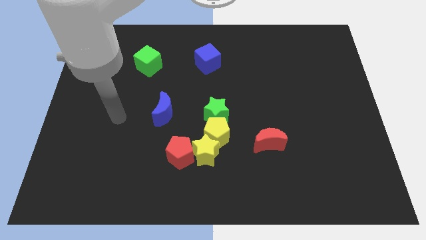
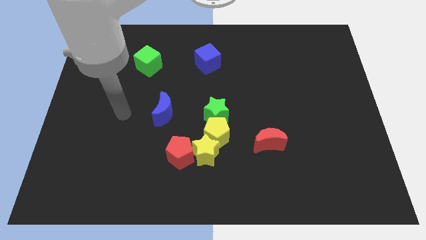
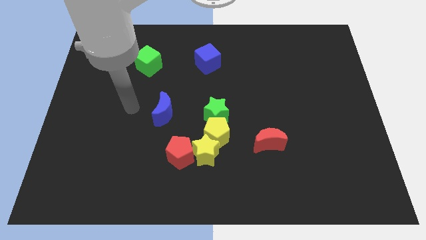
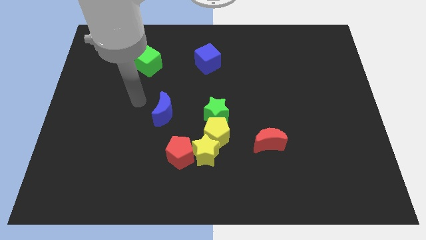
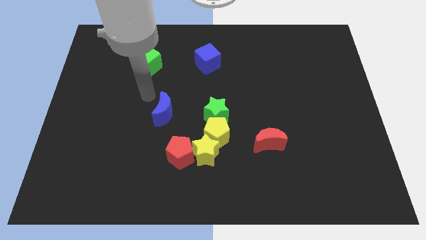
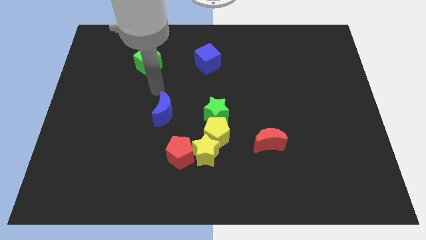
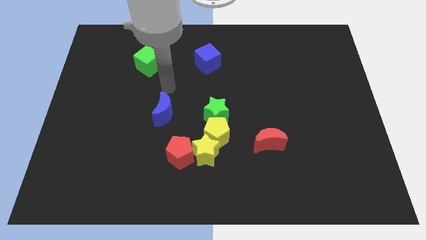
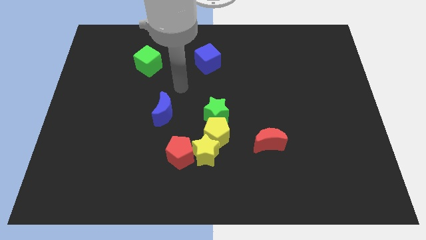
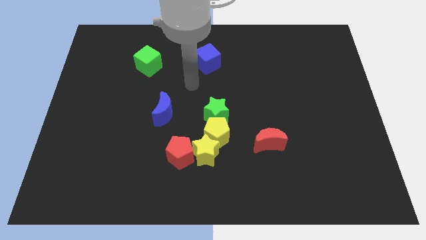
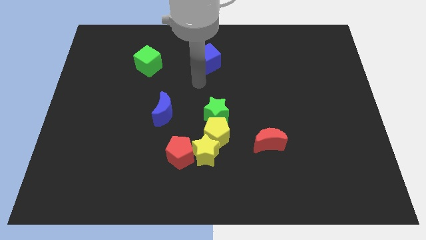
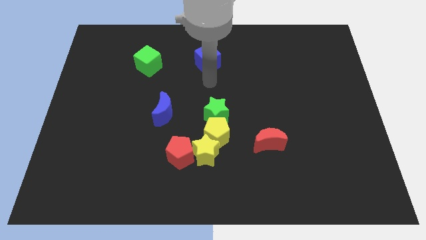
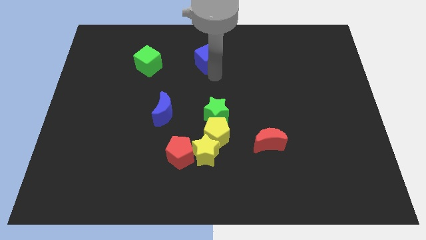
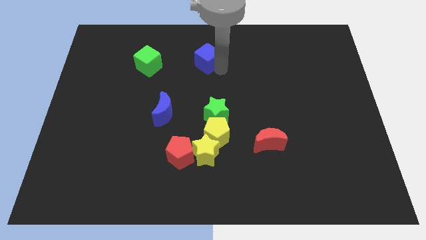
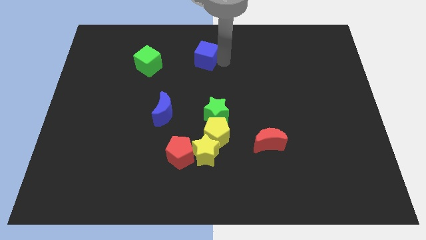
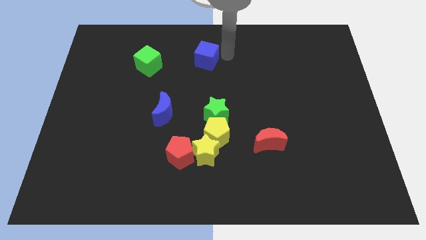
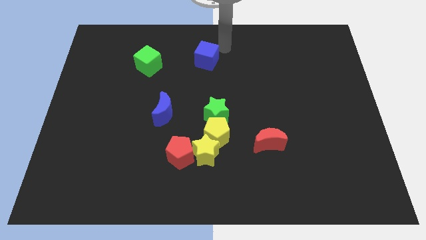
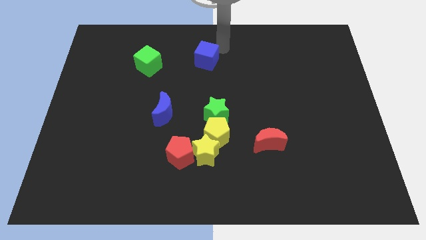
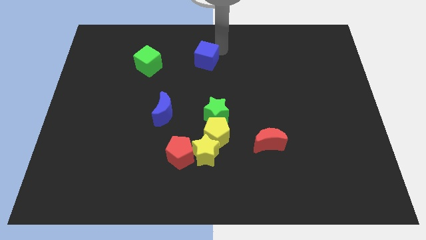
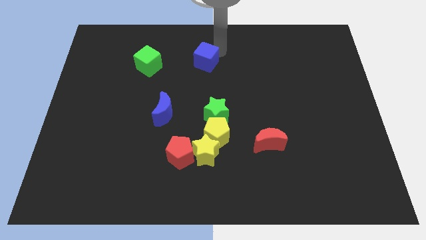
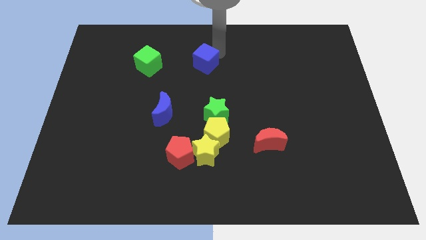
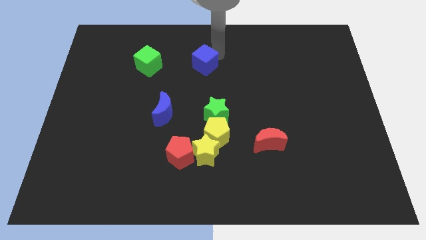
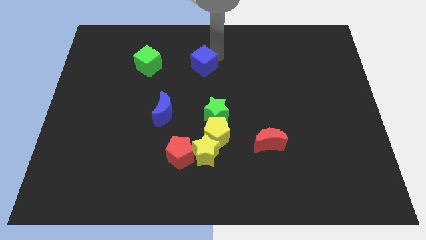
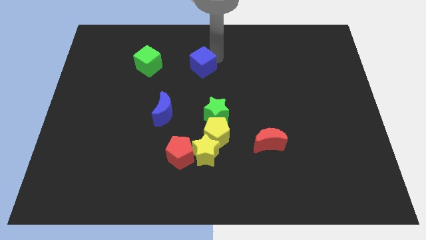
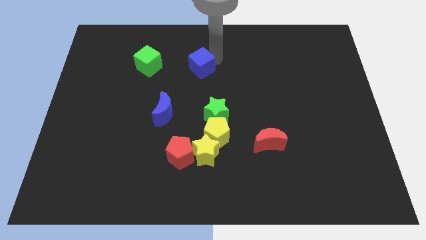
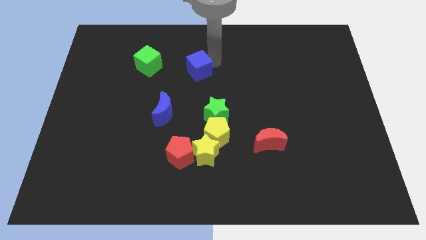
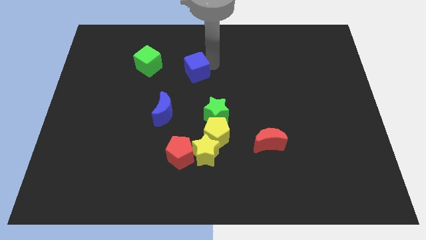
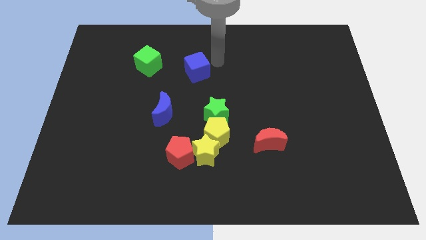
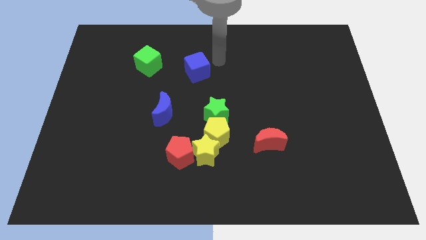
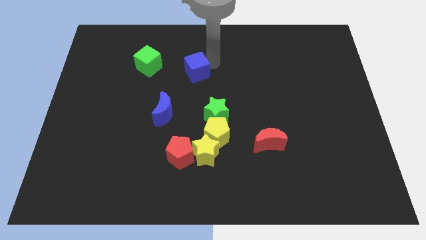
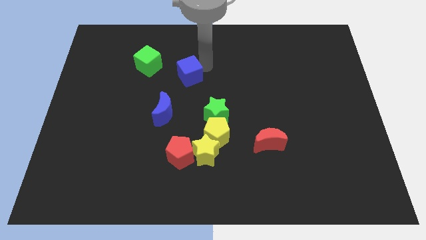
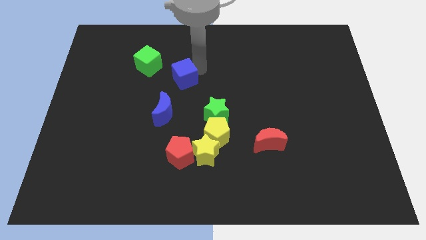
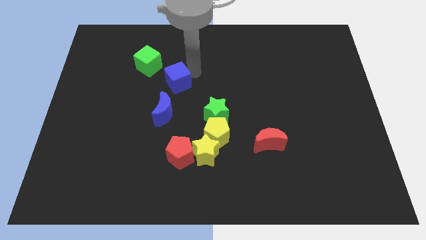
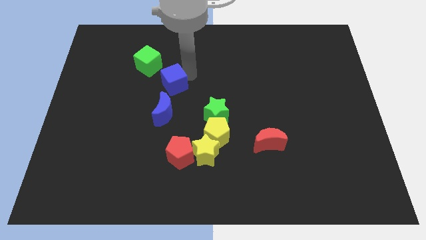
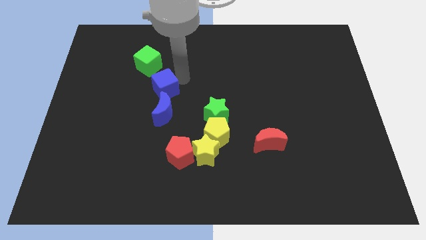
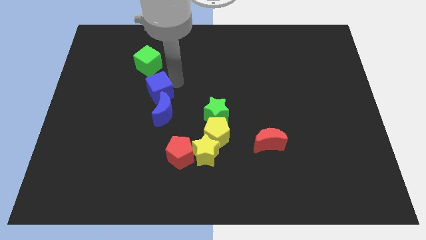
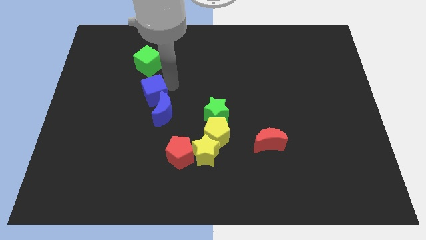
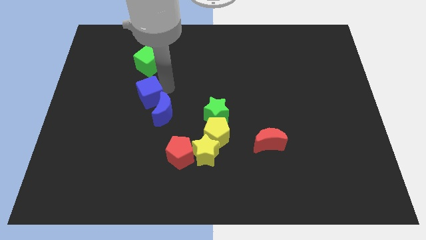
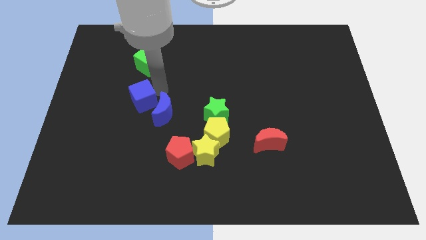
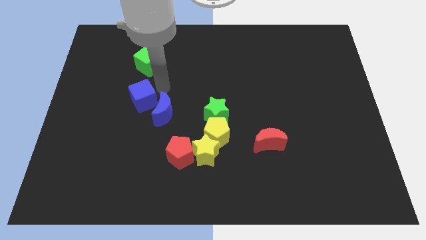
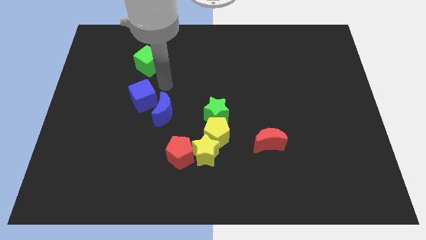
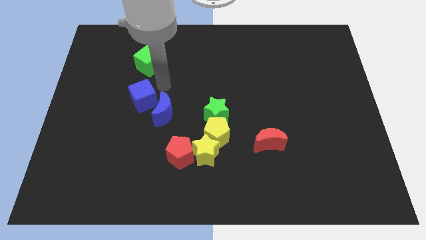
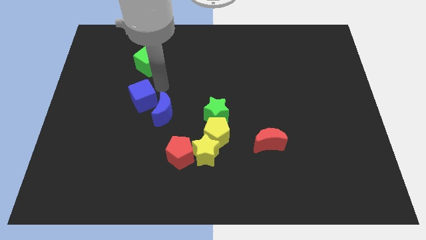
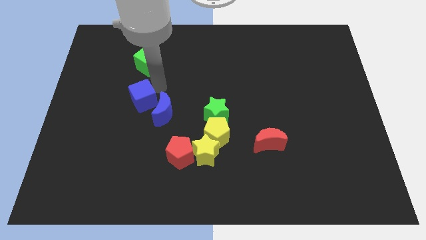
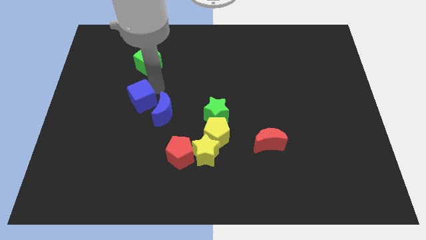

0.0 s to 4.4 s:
slide the blue cube down and to the left

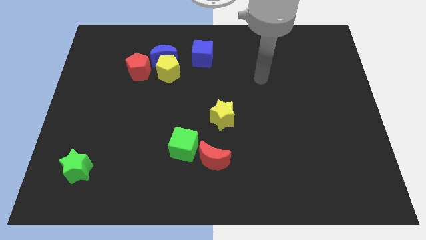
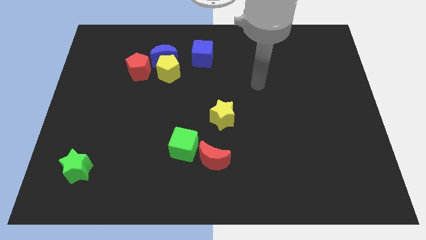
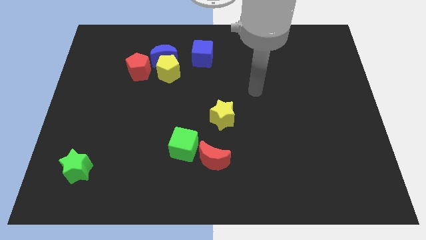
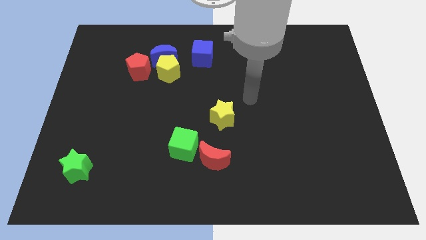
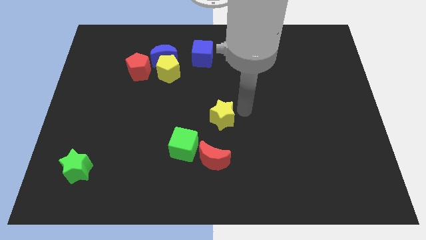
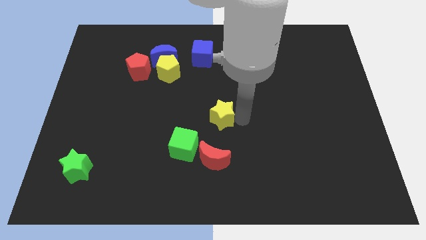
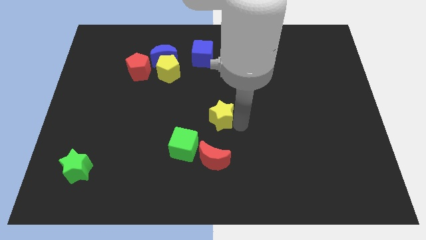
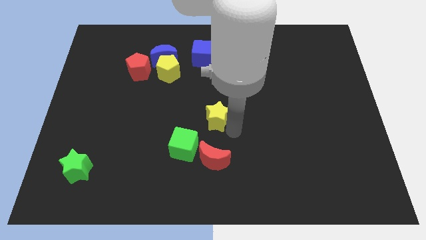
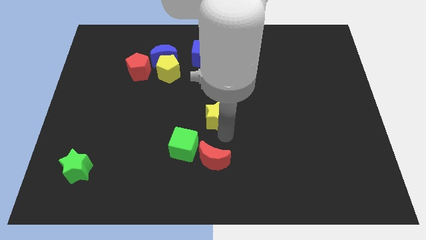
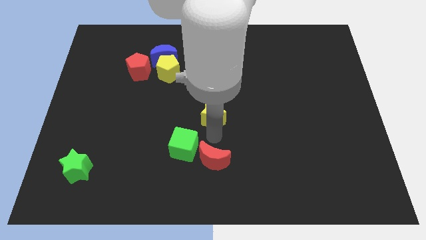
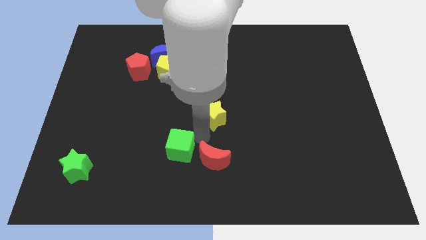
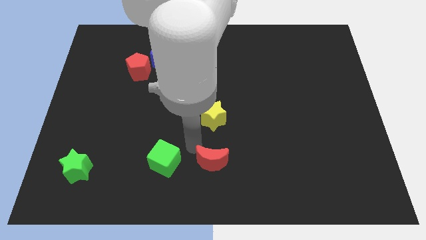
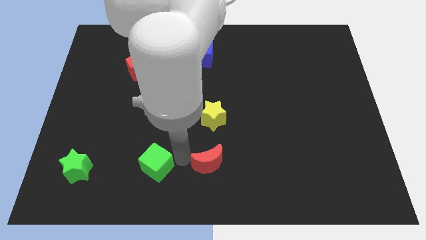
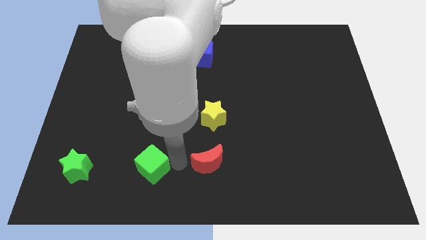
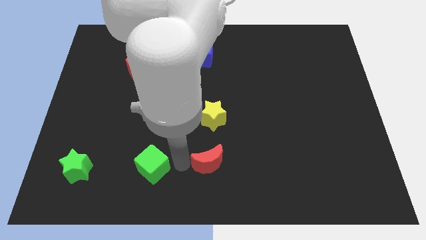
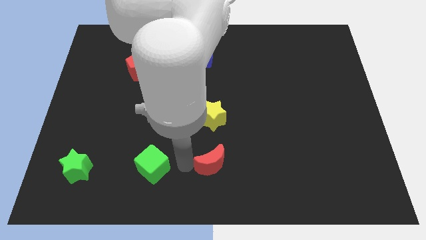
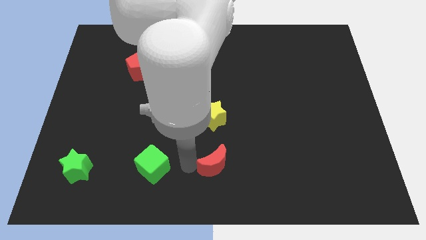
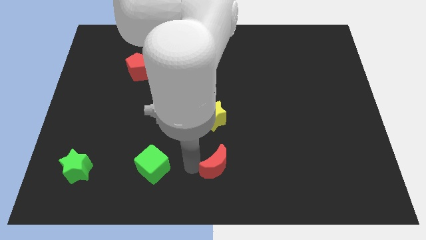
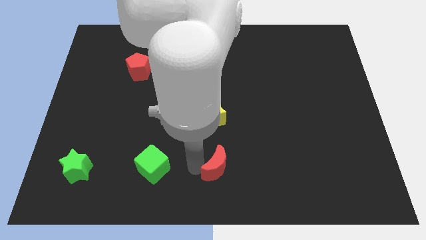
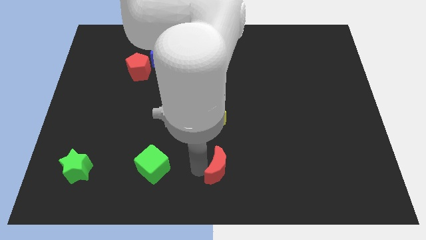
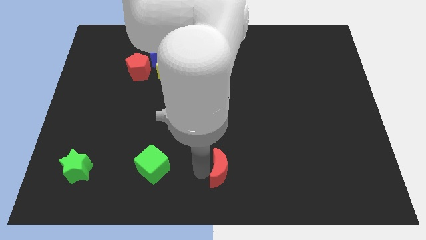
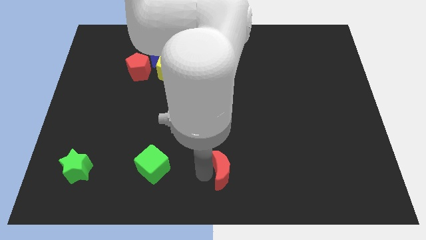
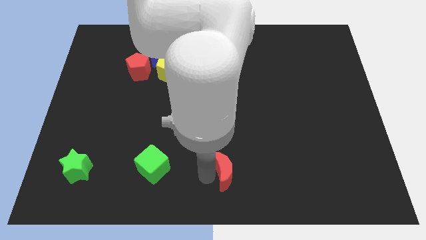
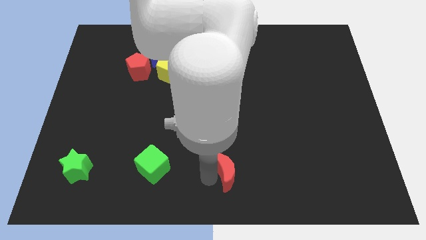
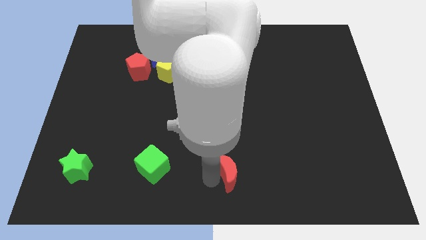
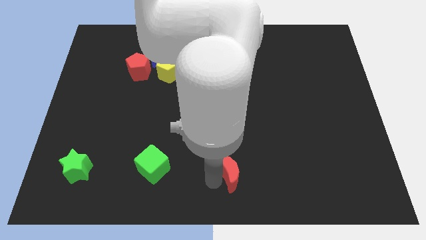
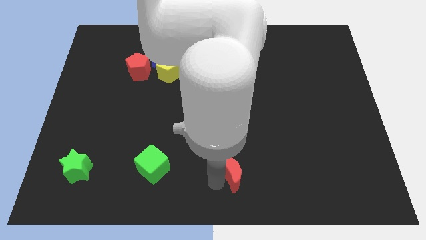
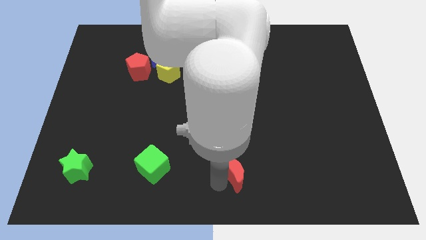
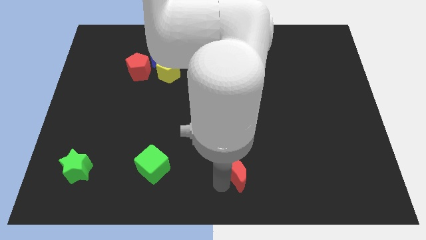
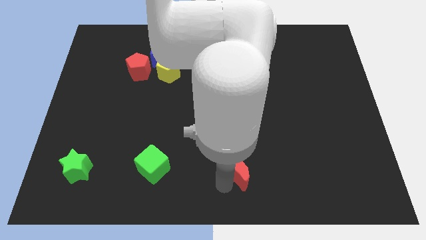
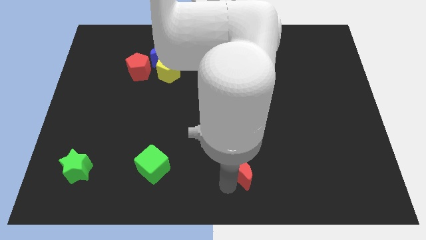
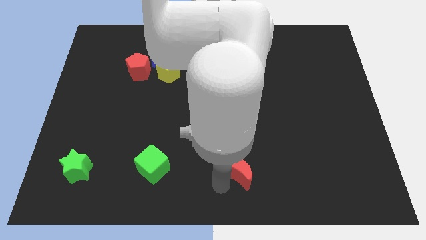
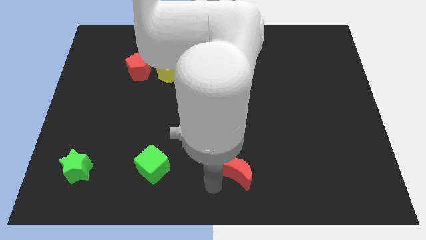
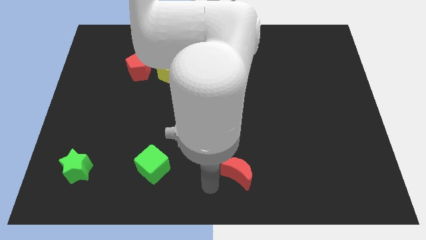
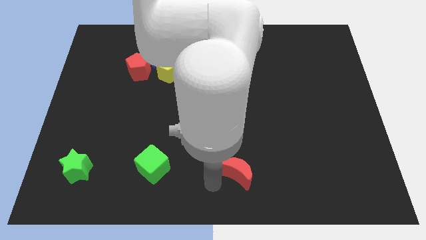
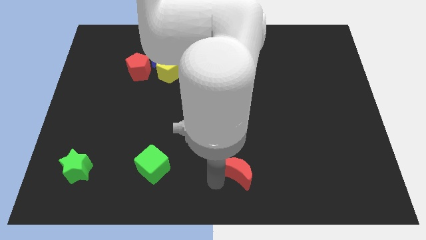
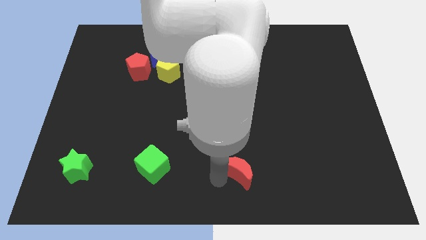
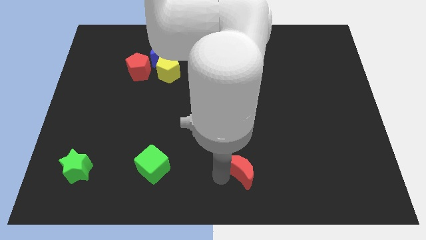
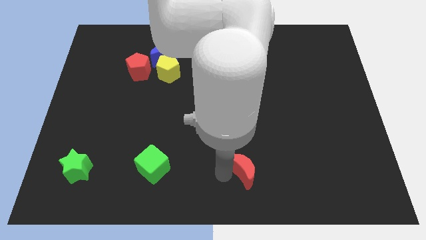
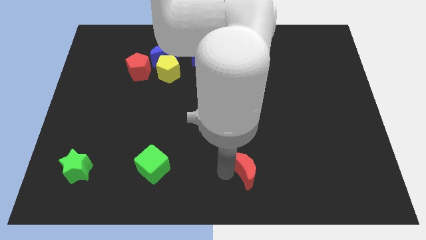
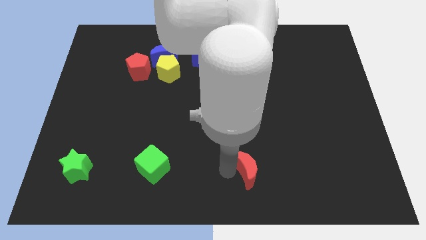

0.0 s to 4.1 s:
slightly slide the red moon to the right
